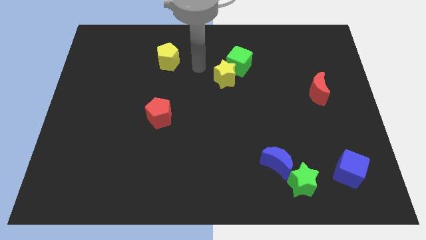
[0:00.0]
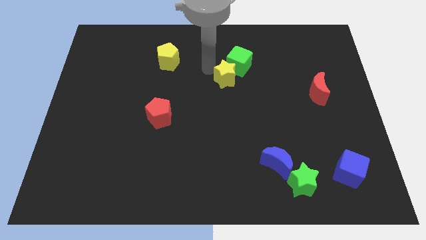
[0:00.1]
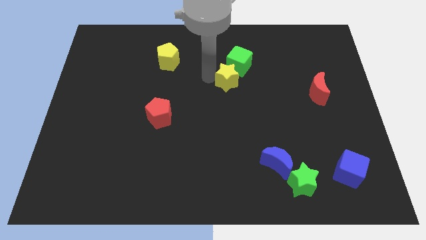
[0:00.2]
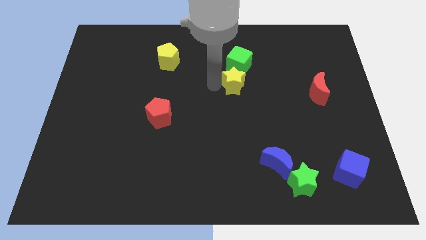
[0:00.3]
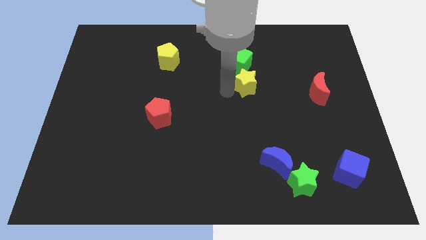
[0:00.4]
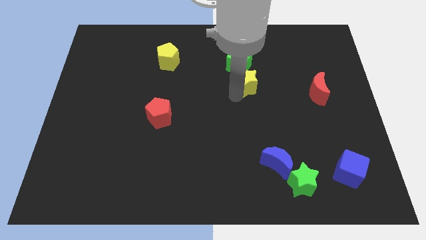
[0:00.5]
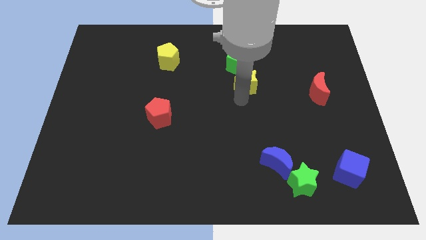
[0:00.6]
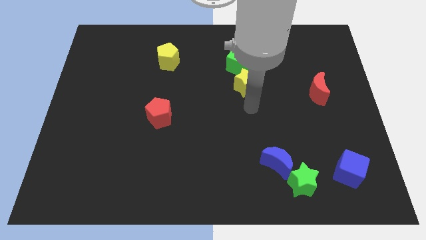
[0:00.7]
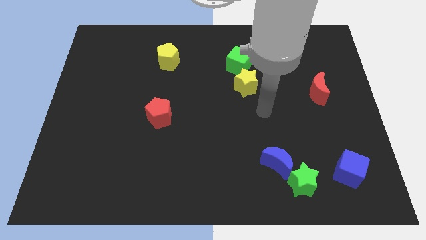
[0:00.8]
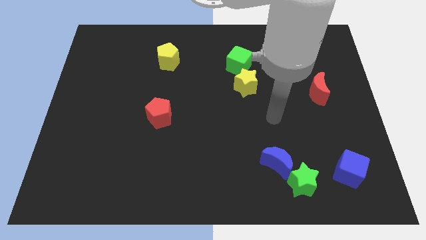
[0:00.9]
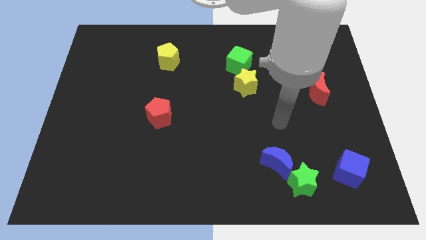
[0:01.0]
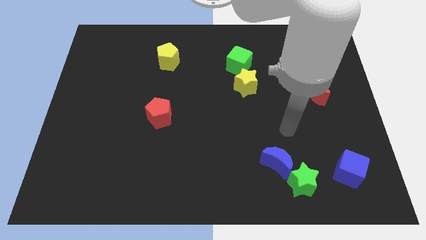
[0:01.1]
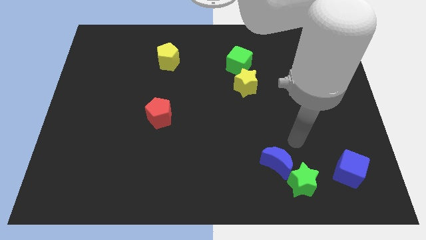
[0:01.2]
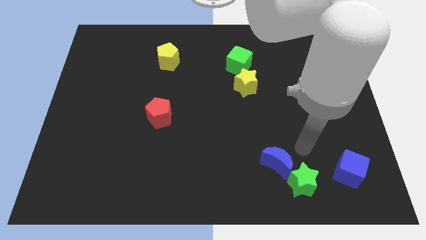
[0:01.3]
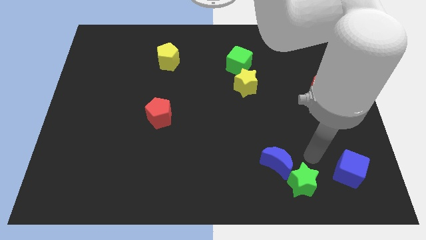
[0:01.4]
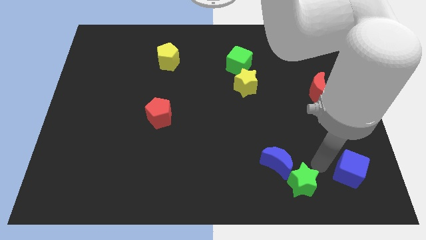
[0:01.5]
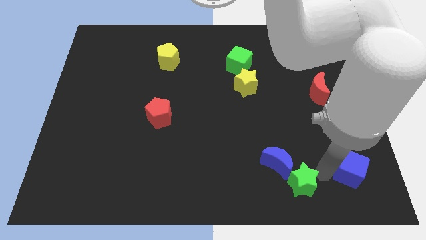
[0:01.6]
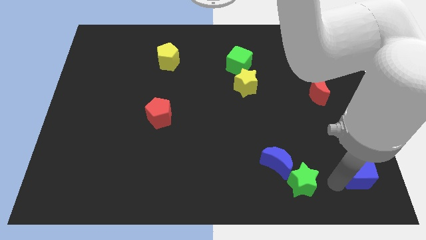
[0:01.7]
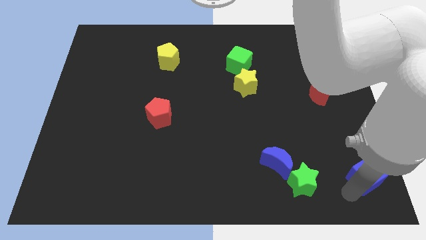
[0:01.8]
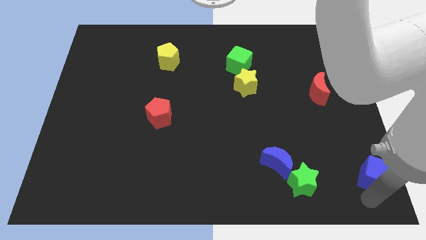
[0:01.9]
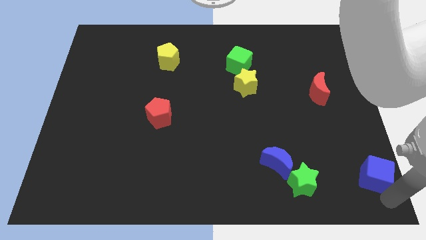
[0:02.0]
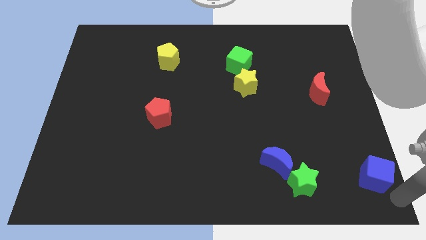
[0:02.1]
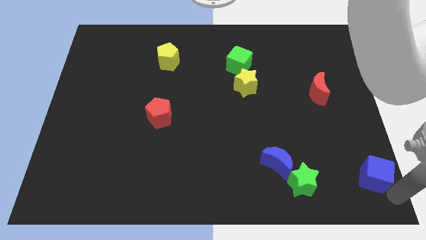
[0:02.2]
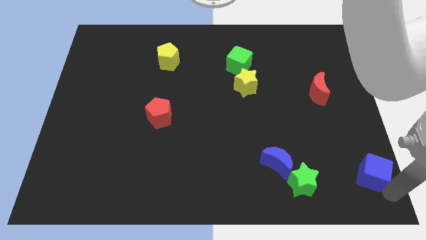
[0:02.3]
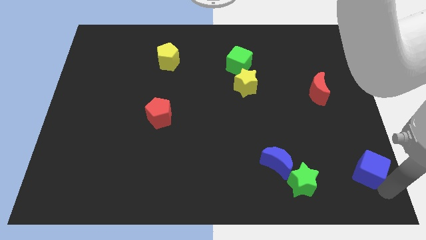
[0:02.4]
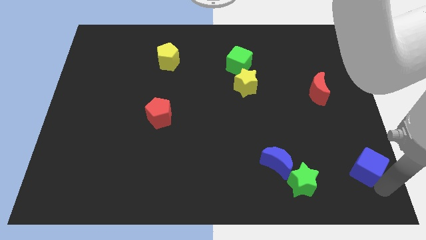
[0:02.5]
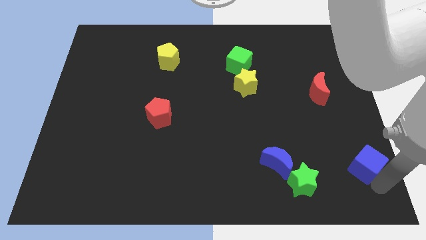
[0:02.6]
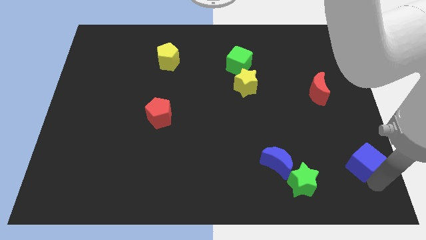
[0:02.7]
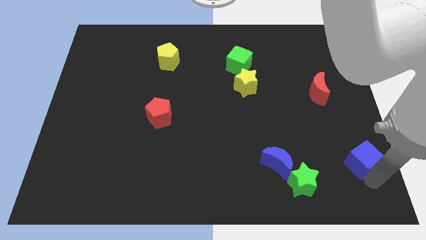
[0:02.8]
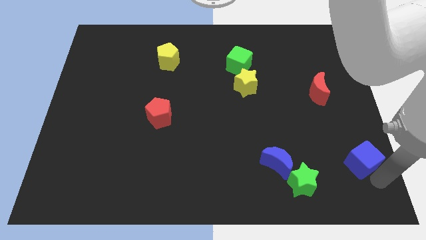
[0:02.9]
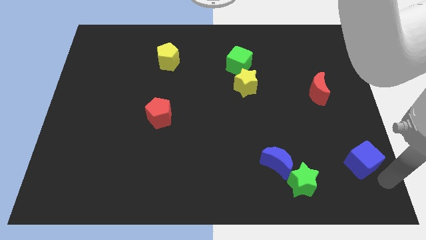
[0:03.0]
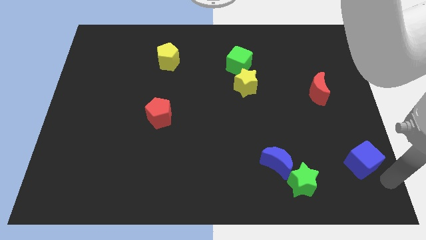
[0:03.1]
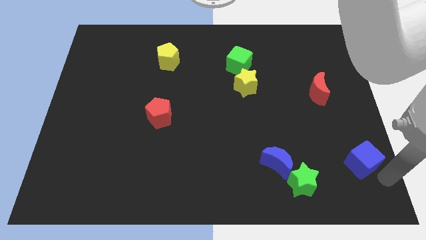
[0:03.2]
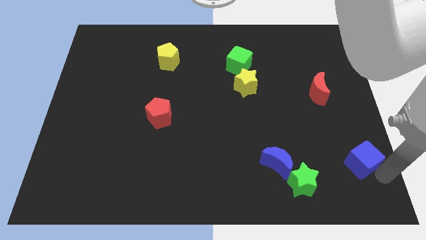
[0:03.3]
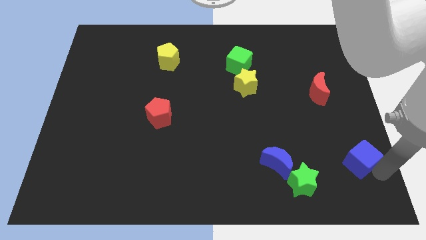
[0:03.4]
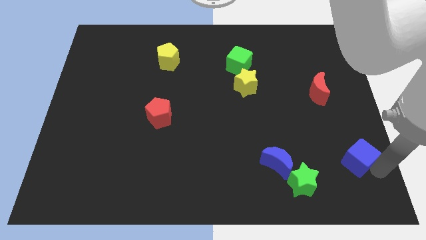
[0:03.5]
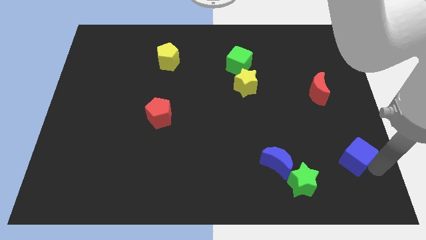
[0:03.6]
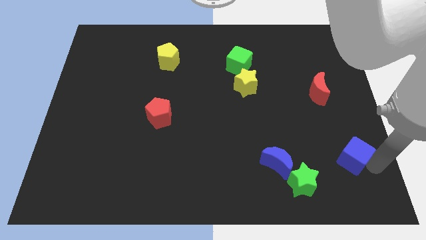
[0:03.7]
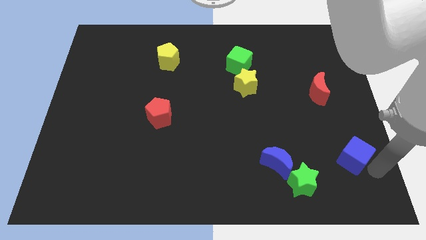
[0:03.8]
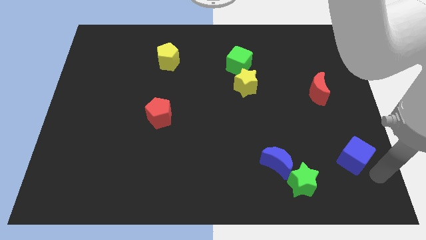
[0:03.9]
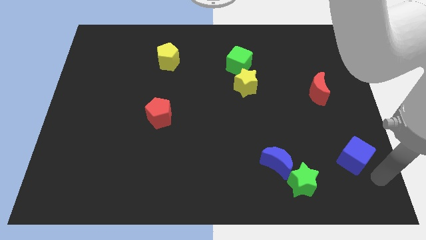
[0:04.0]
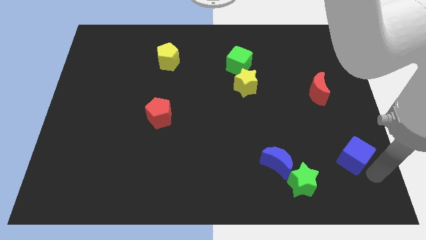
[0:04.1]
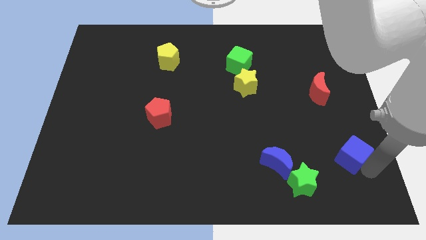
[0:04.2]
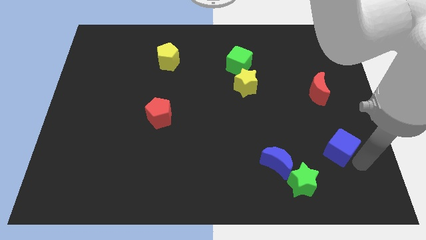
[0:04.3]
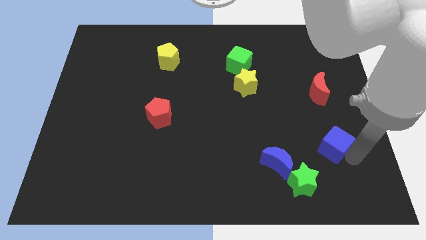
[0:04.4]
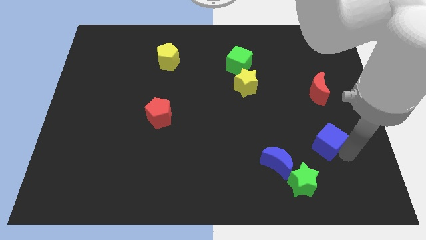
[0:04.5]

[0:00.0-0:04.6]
slightly push the blue cube diagonally up and left

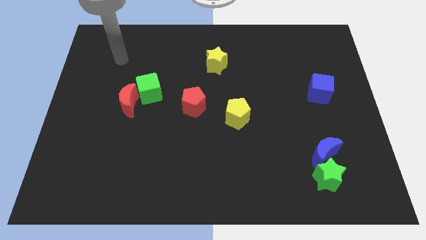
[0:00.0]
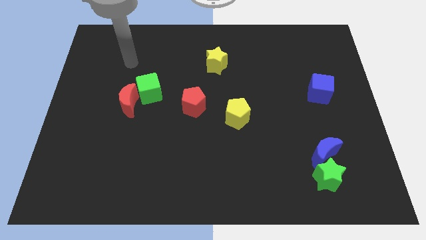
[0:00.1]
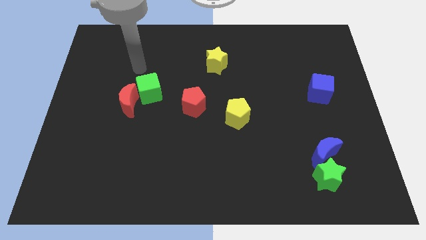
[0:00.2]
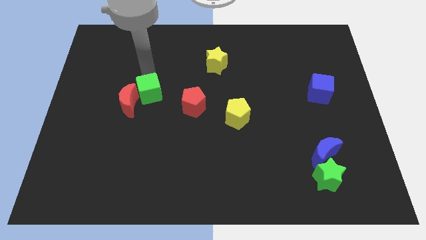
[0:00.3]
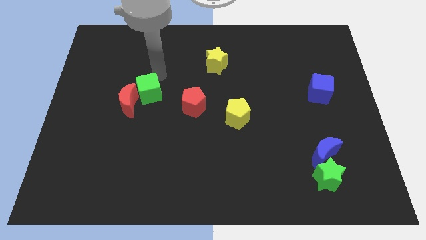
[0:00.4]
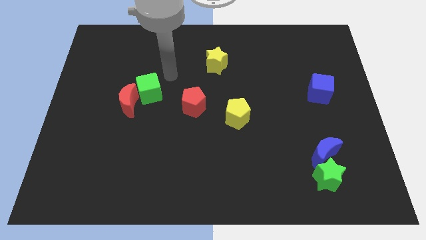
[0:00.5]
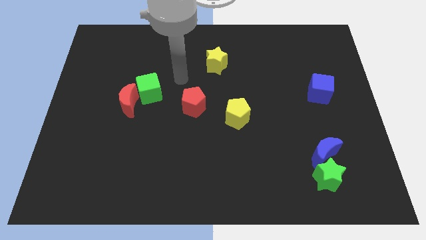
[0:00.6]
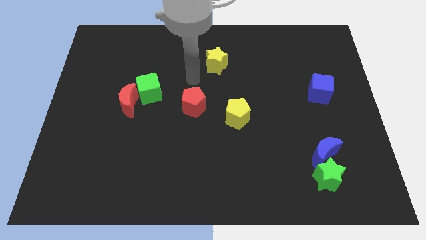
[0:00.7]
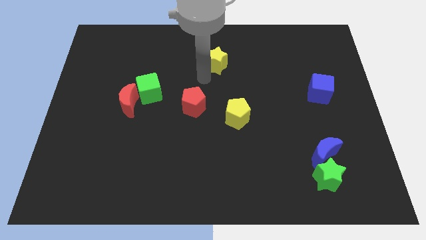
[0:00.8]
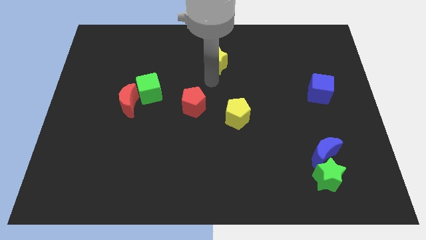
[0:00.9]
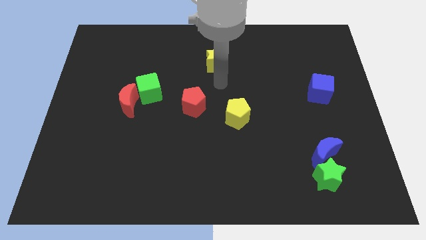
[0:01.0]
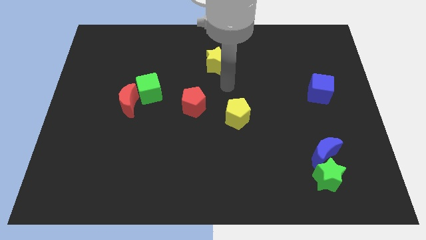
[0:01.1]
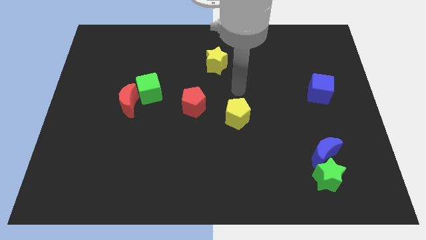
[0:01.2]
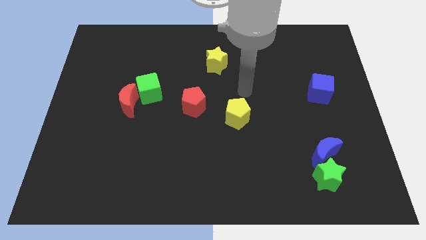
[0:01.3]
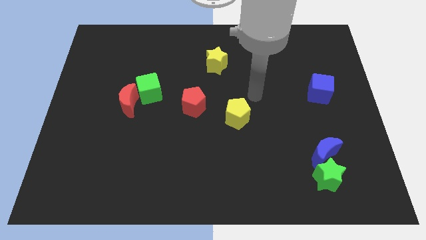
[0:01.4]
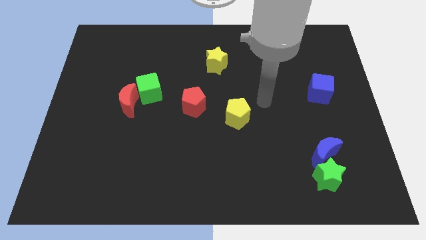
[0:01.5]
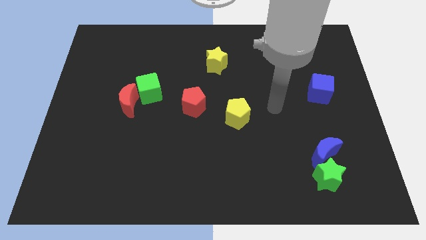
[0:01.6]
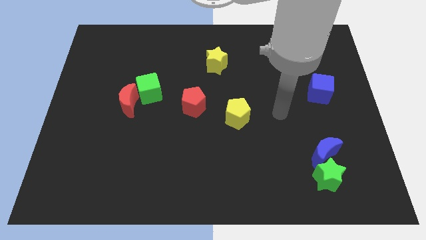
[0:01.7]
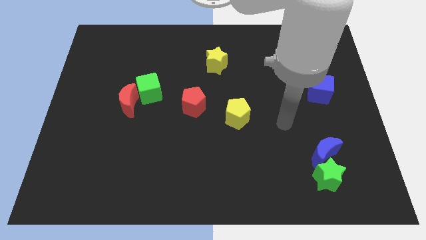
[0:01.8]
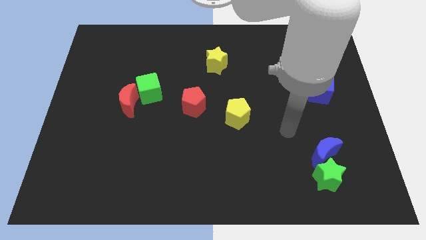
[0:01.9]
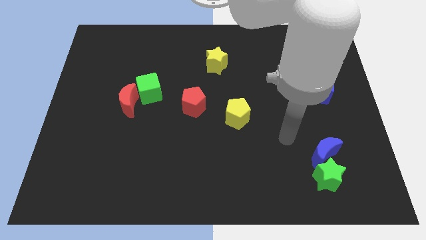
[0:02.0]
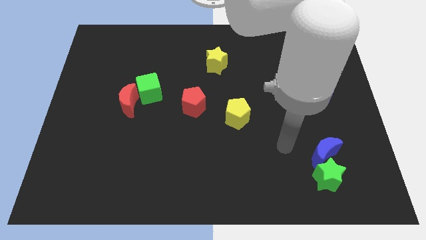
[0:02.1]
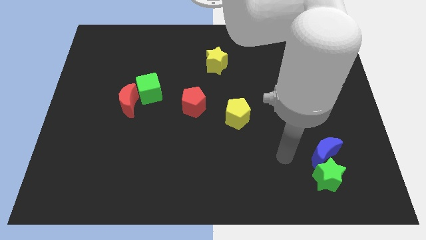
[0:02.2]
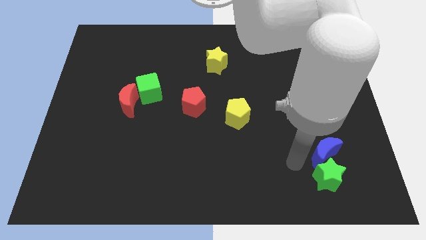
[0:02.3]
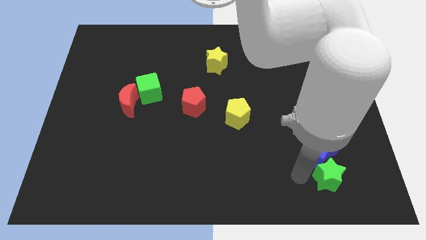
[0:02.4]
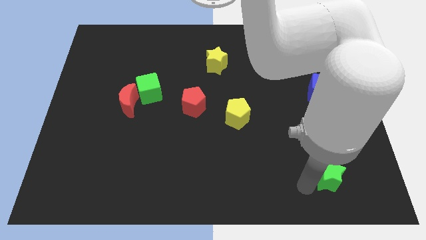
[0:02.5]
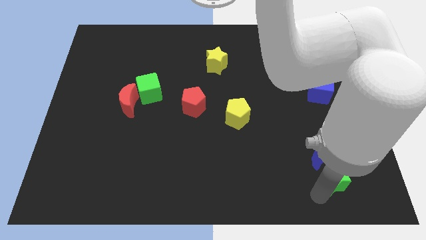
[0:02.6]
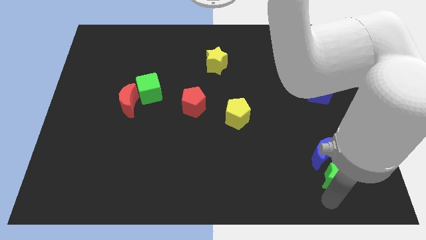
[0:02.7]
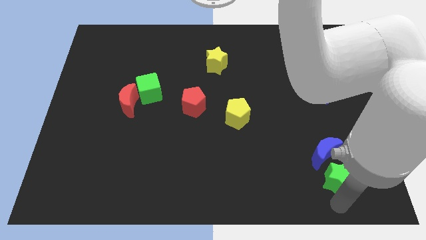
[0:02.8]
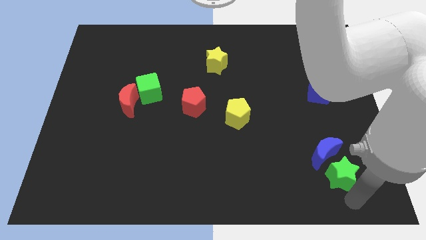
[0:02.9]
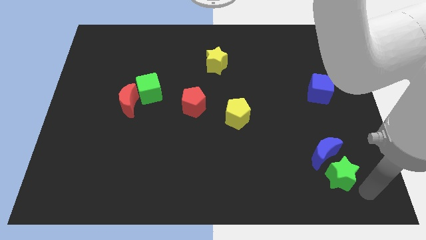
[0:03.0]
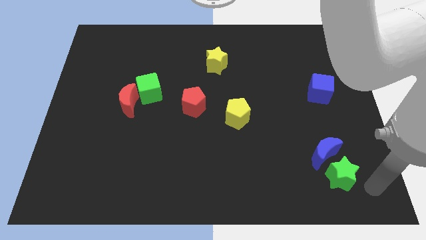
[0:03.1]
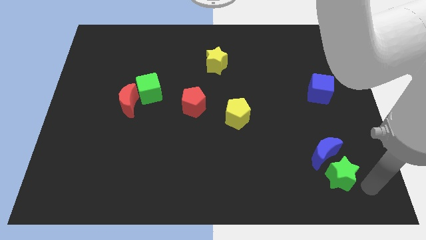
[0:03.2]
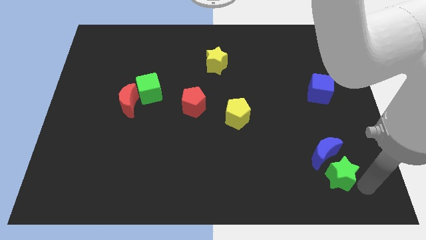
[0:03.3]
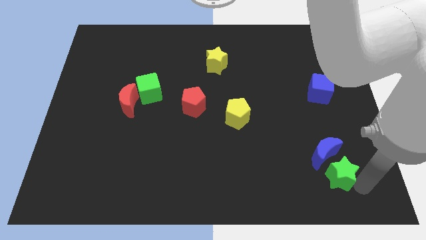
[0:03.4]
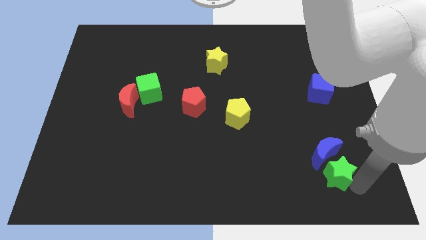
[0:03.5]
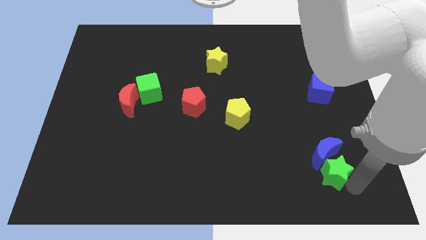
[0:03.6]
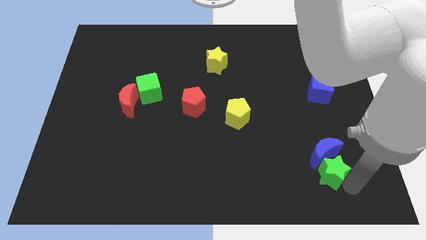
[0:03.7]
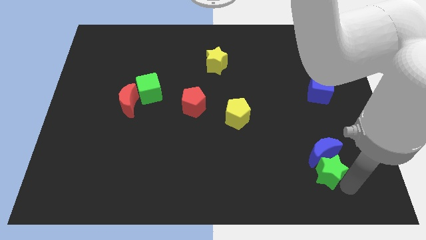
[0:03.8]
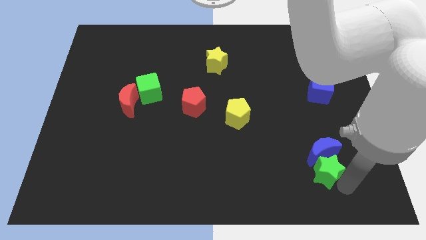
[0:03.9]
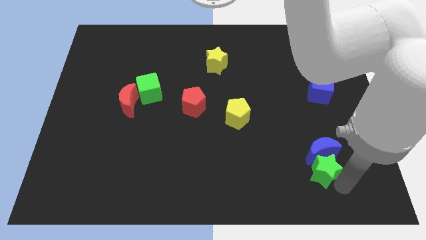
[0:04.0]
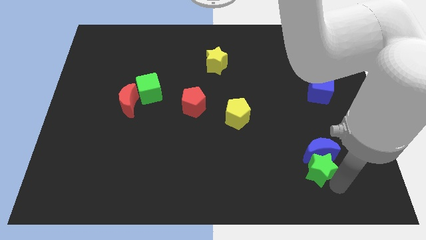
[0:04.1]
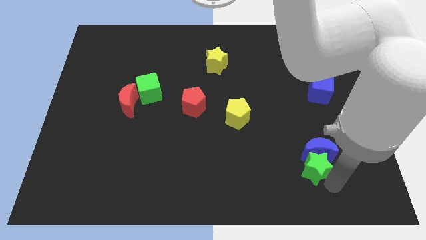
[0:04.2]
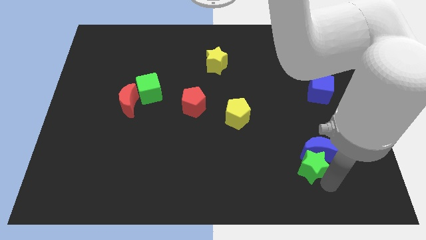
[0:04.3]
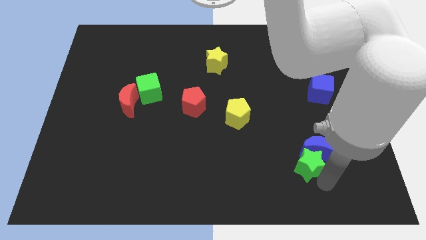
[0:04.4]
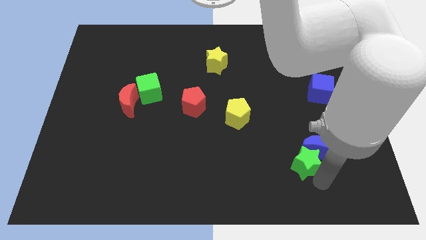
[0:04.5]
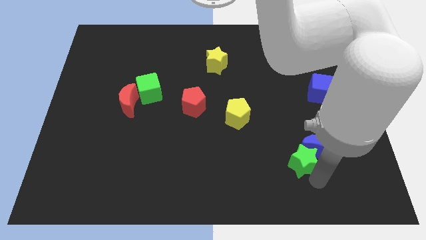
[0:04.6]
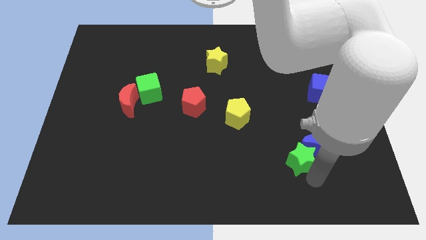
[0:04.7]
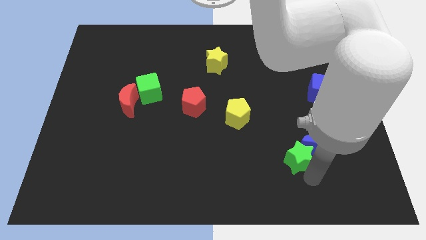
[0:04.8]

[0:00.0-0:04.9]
push the green star diagonally up and left a little bit
